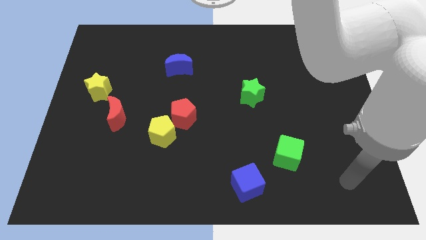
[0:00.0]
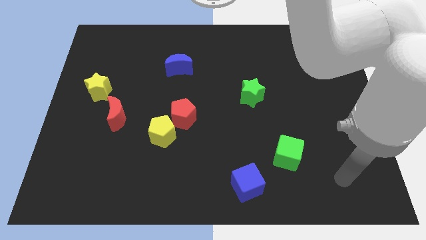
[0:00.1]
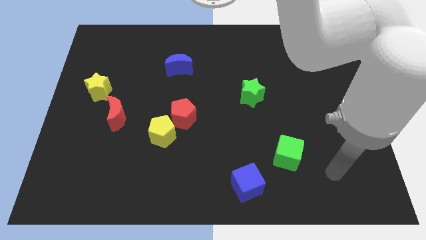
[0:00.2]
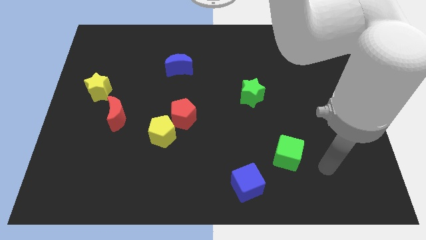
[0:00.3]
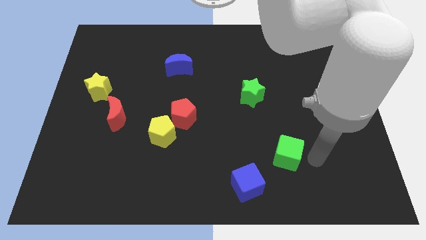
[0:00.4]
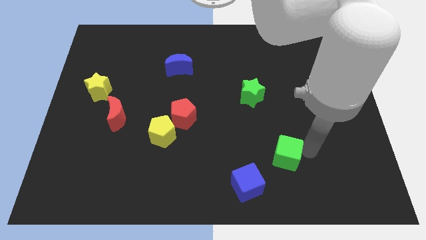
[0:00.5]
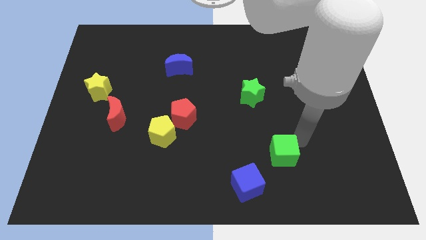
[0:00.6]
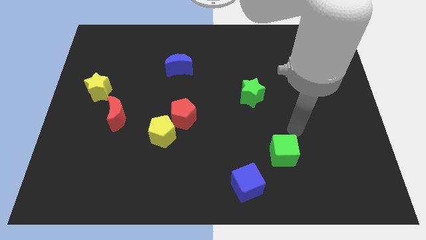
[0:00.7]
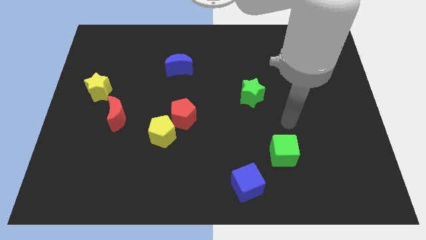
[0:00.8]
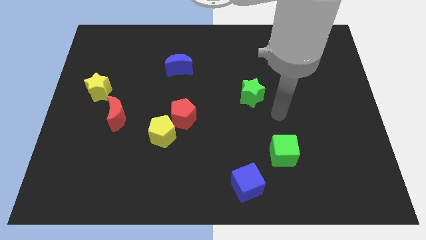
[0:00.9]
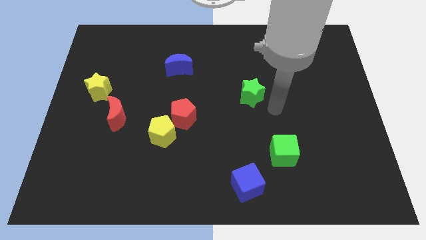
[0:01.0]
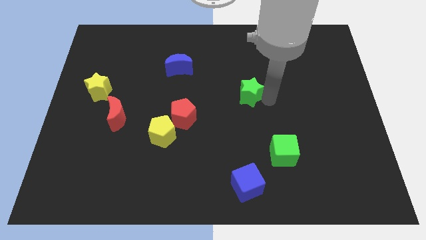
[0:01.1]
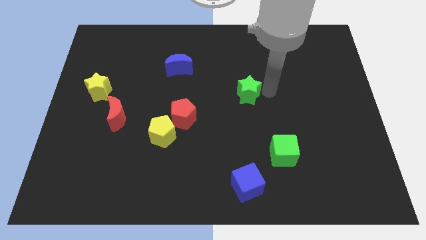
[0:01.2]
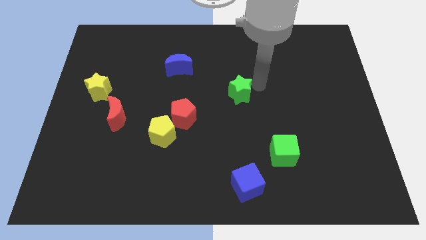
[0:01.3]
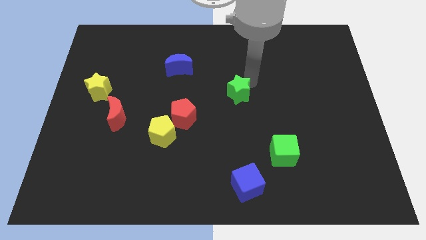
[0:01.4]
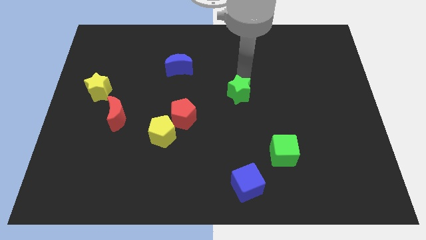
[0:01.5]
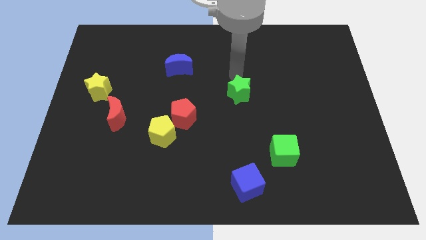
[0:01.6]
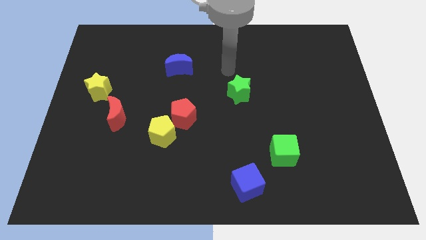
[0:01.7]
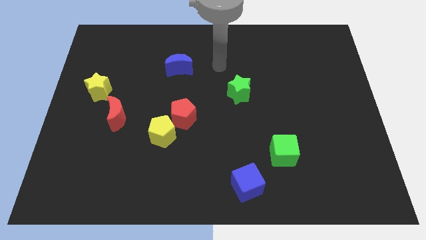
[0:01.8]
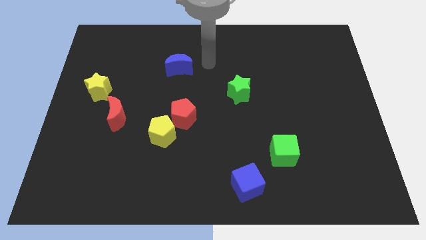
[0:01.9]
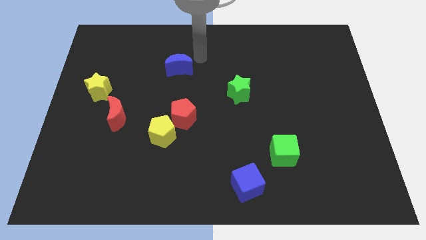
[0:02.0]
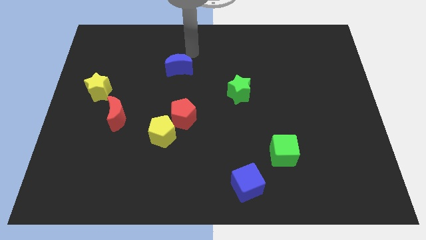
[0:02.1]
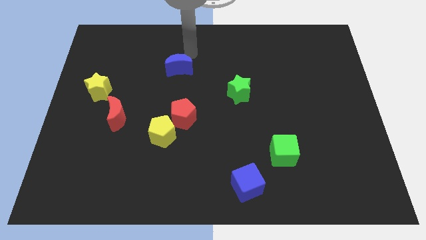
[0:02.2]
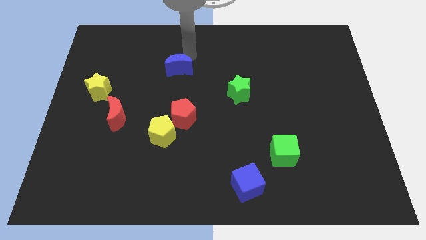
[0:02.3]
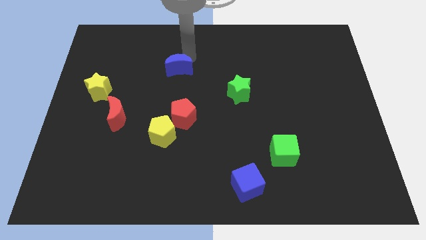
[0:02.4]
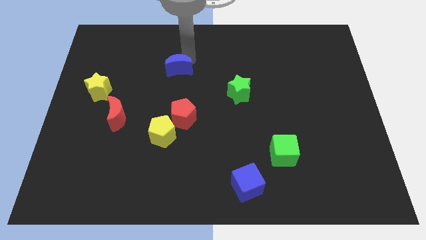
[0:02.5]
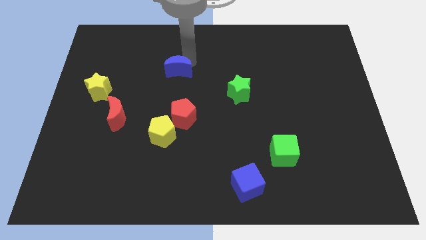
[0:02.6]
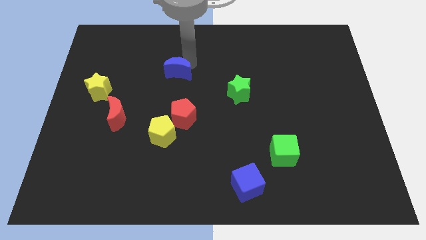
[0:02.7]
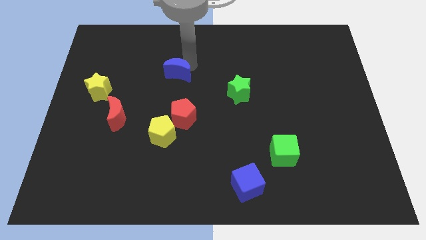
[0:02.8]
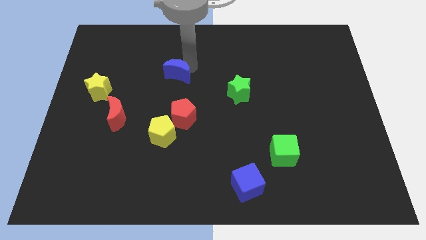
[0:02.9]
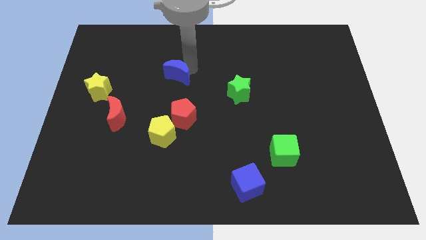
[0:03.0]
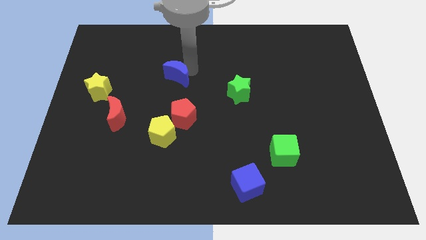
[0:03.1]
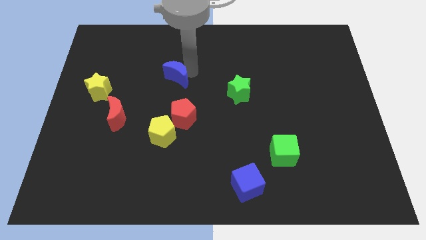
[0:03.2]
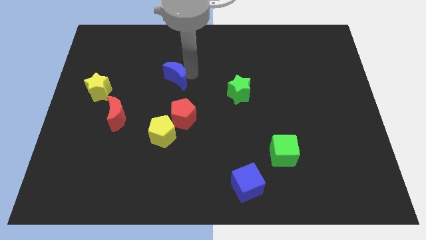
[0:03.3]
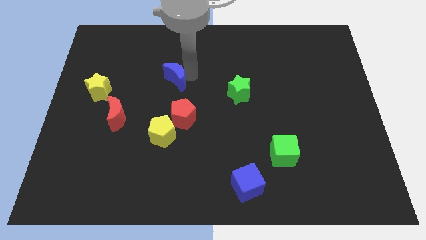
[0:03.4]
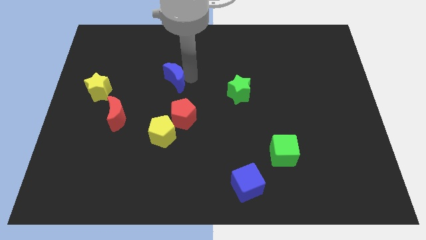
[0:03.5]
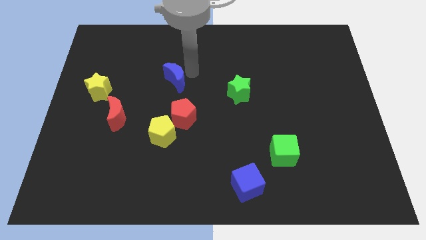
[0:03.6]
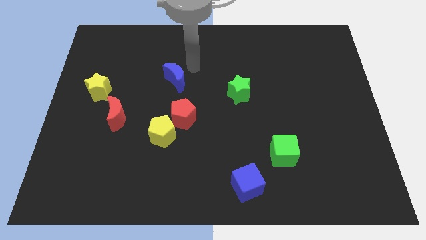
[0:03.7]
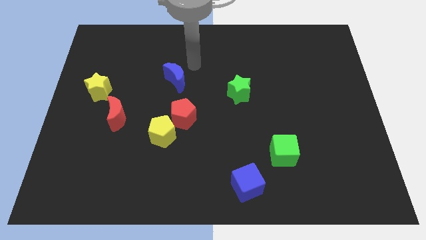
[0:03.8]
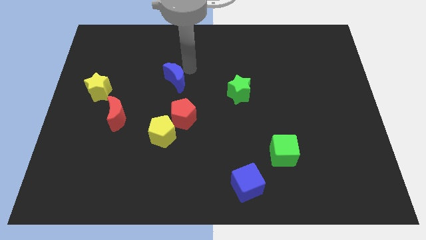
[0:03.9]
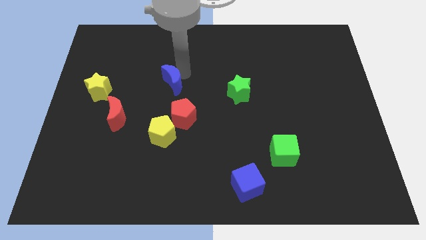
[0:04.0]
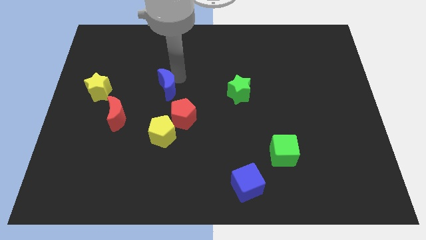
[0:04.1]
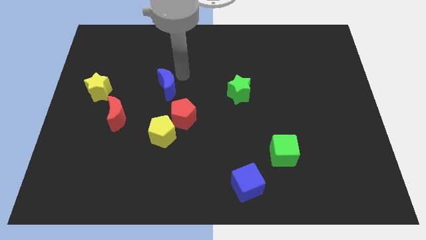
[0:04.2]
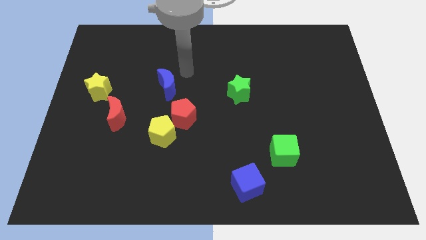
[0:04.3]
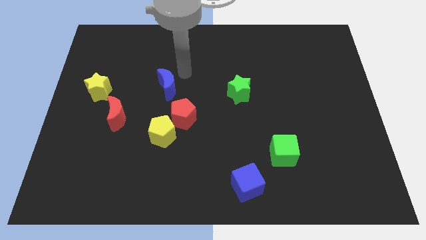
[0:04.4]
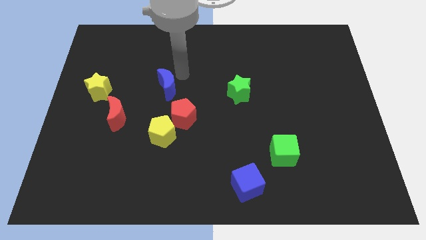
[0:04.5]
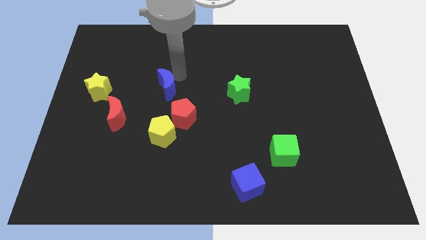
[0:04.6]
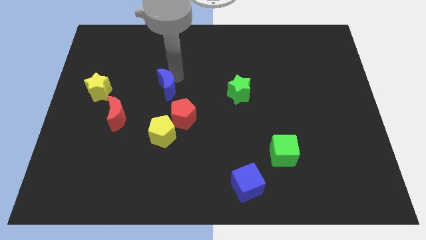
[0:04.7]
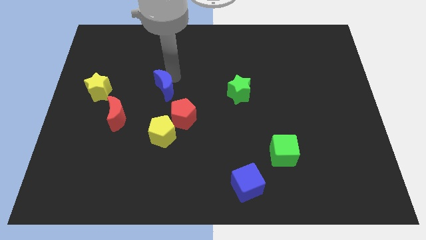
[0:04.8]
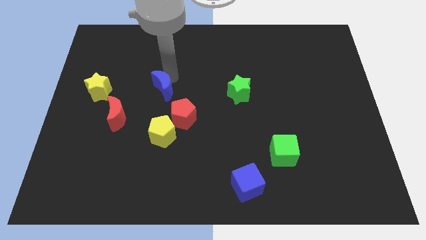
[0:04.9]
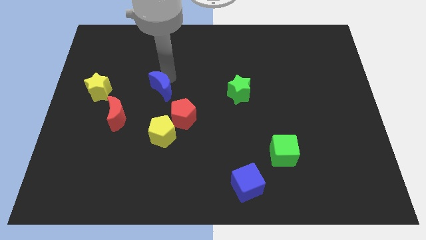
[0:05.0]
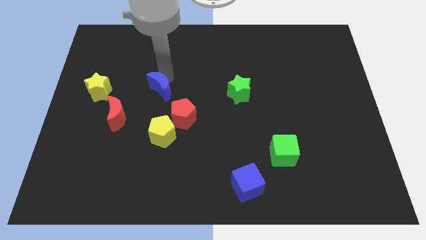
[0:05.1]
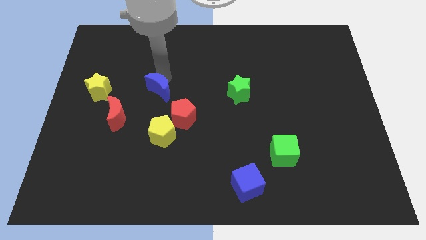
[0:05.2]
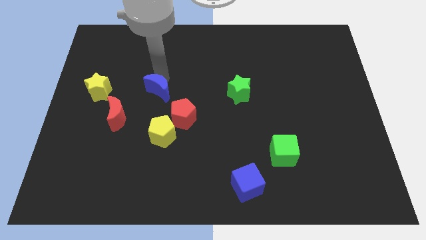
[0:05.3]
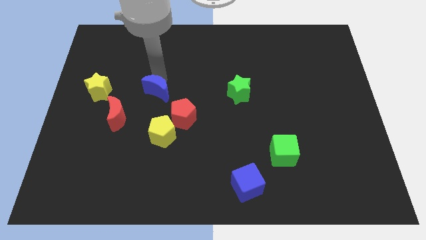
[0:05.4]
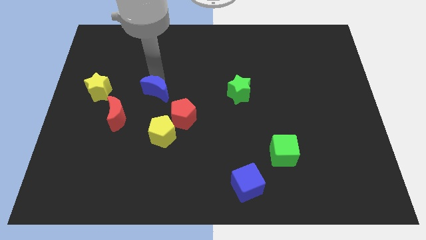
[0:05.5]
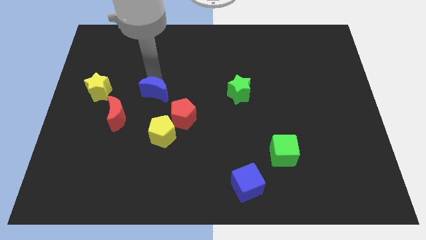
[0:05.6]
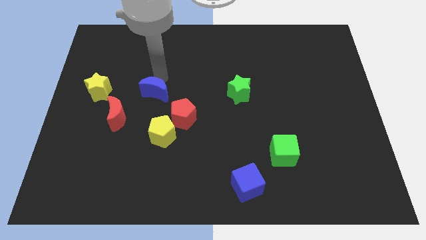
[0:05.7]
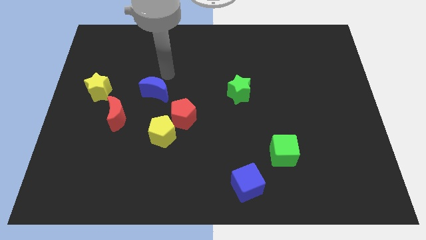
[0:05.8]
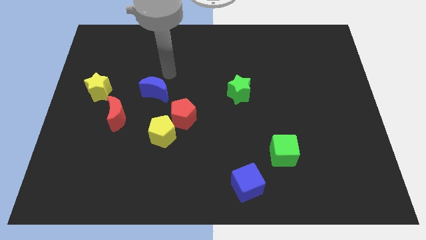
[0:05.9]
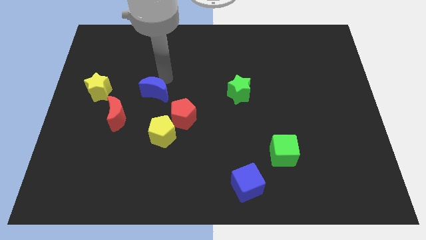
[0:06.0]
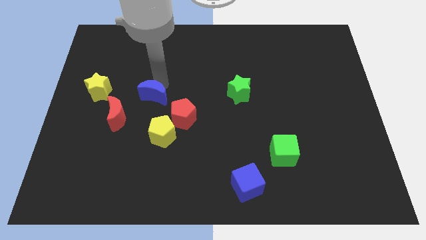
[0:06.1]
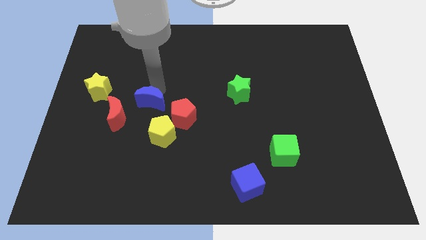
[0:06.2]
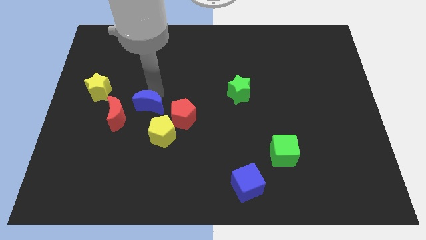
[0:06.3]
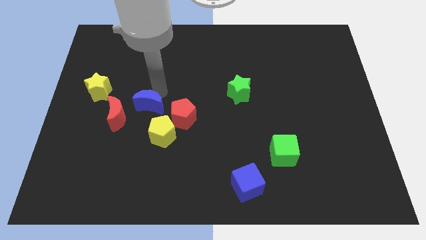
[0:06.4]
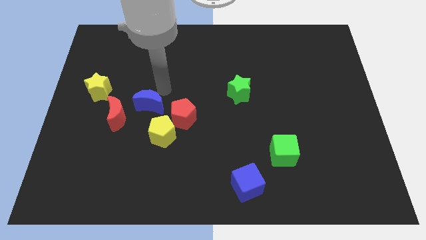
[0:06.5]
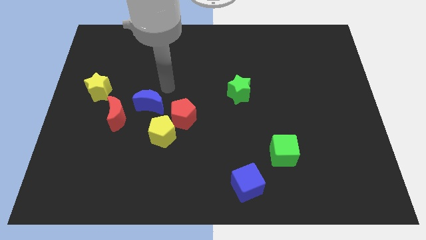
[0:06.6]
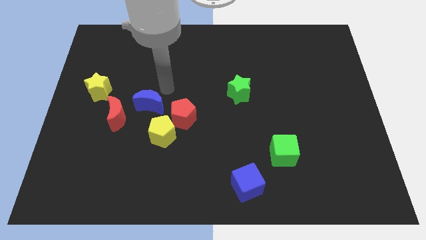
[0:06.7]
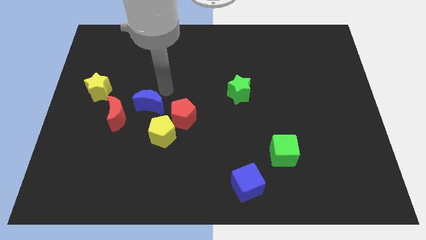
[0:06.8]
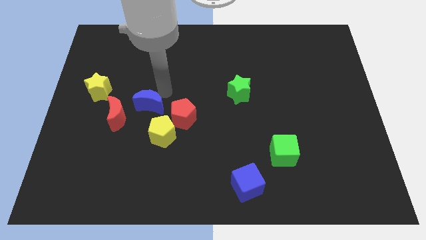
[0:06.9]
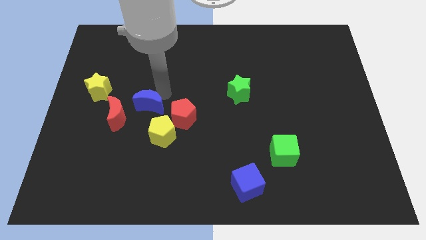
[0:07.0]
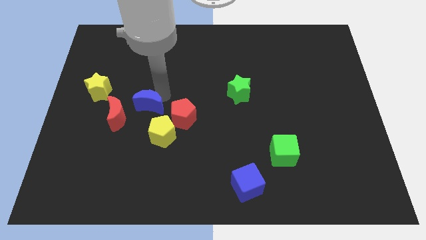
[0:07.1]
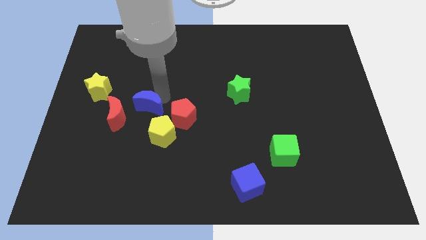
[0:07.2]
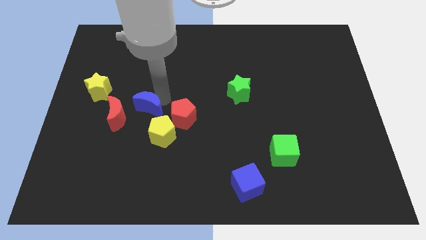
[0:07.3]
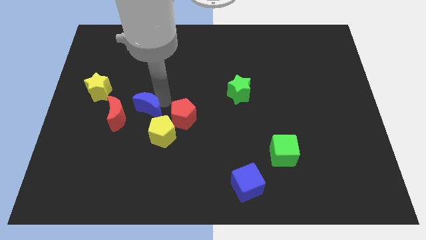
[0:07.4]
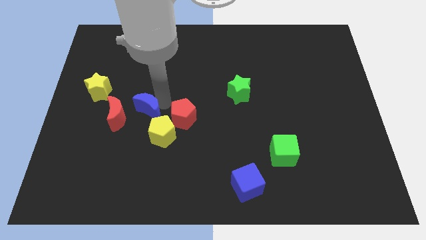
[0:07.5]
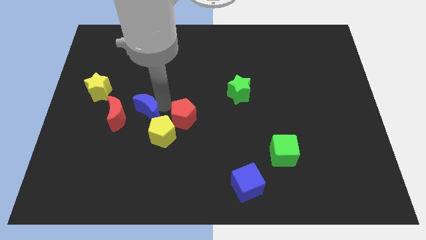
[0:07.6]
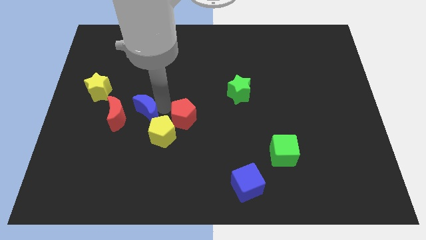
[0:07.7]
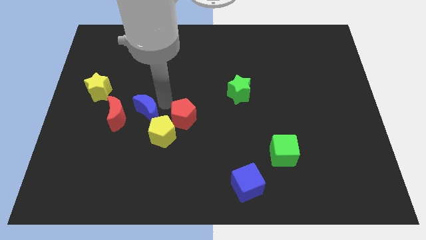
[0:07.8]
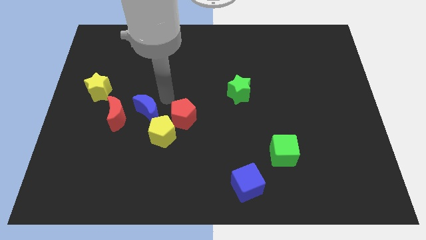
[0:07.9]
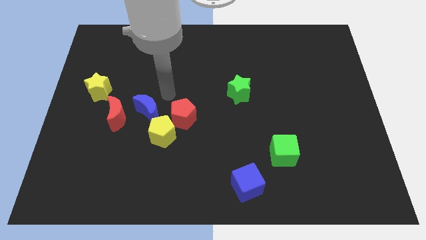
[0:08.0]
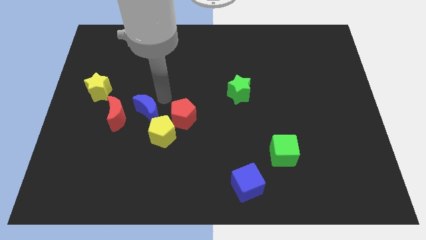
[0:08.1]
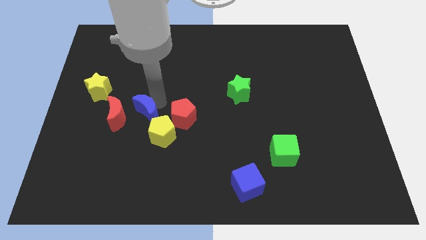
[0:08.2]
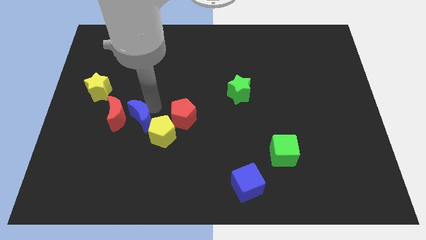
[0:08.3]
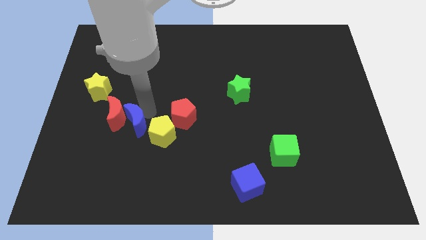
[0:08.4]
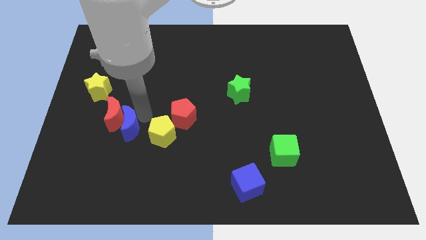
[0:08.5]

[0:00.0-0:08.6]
slide the blue moon to the bottom side of the red moon
